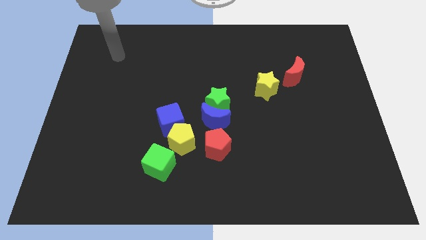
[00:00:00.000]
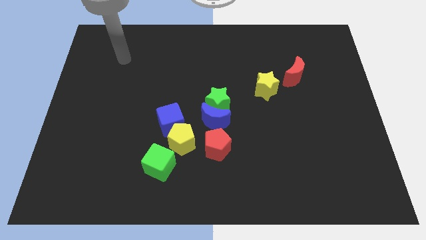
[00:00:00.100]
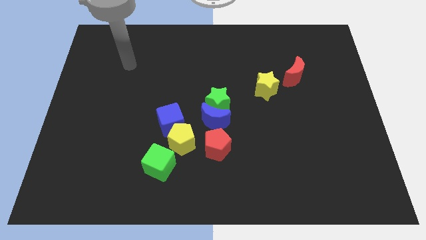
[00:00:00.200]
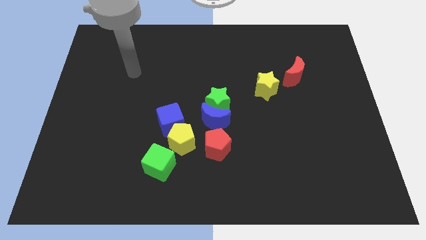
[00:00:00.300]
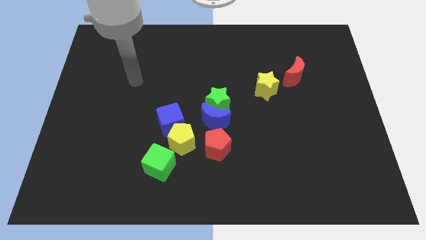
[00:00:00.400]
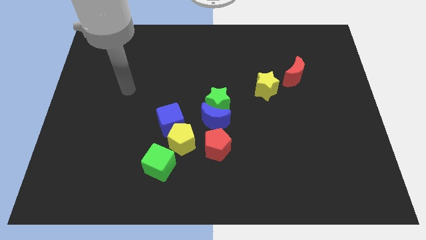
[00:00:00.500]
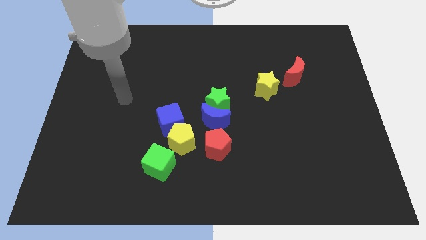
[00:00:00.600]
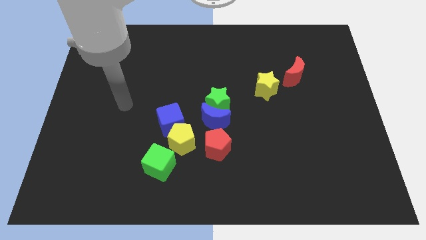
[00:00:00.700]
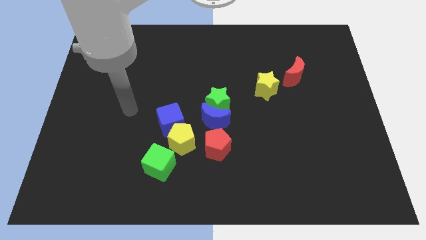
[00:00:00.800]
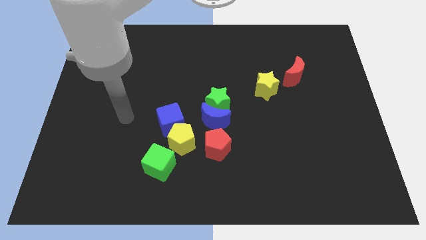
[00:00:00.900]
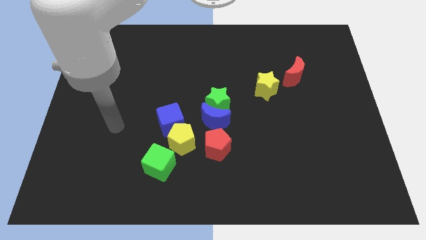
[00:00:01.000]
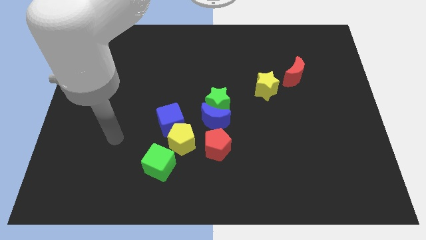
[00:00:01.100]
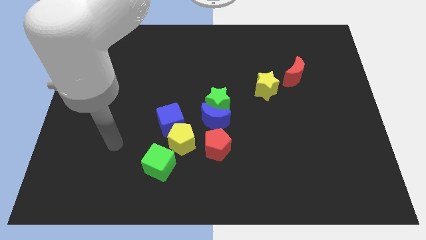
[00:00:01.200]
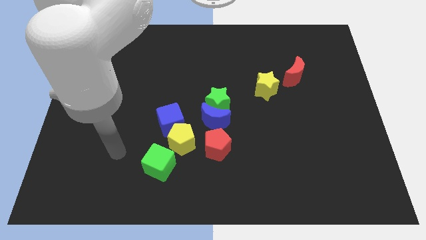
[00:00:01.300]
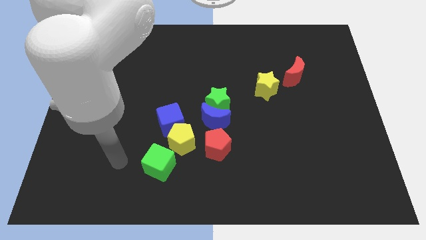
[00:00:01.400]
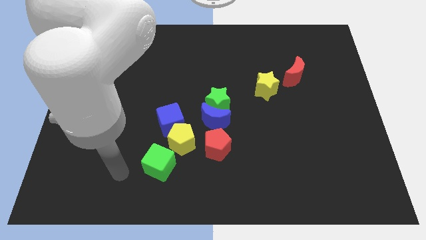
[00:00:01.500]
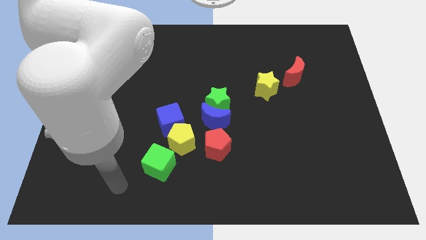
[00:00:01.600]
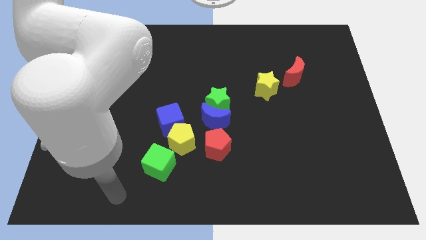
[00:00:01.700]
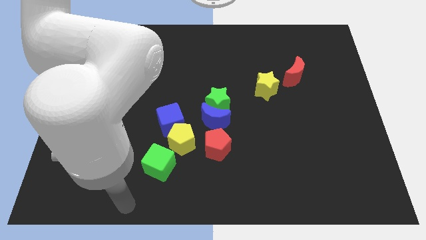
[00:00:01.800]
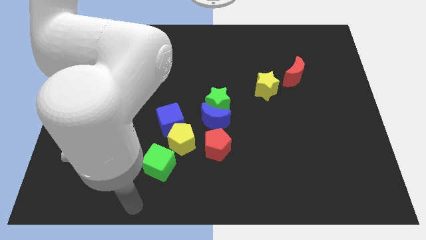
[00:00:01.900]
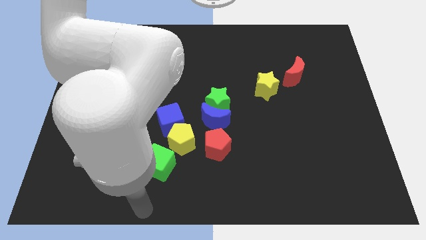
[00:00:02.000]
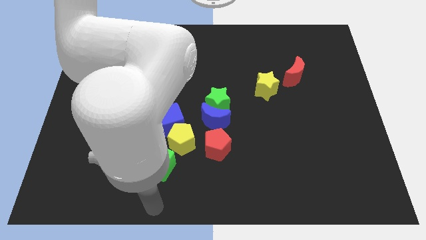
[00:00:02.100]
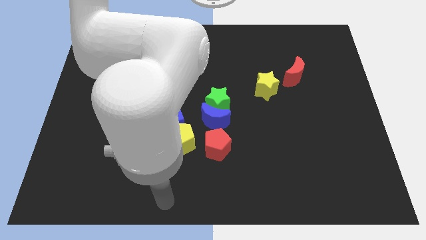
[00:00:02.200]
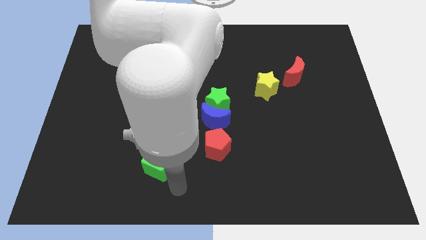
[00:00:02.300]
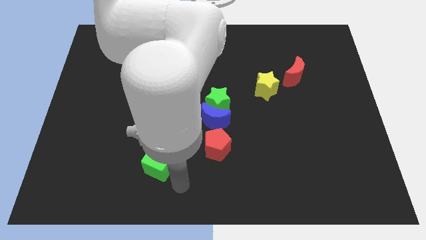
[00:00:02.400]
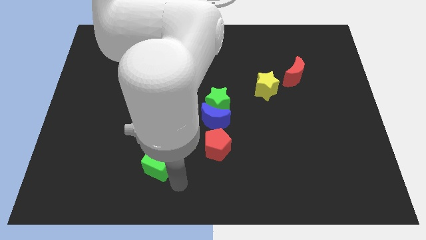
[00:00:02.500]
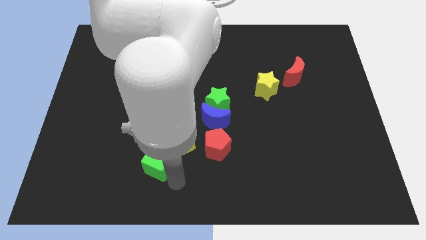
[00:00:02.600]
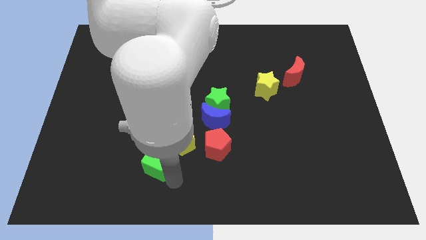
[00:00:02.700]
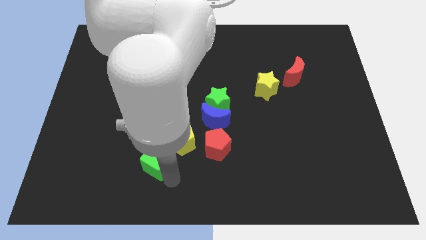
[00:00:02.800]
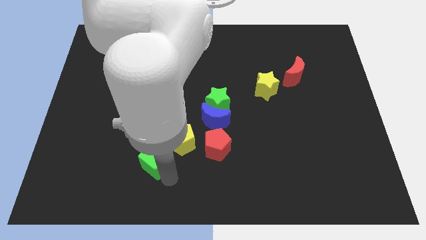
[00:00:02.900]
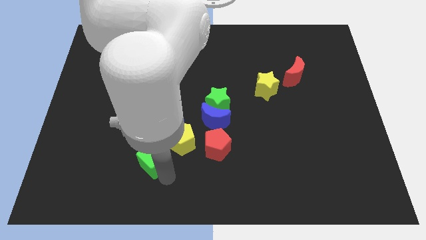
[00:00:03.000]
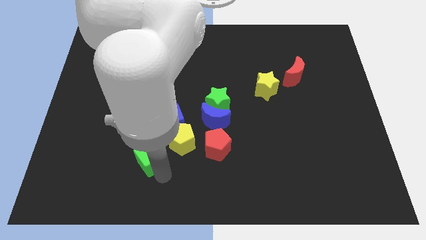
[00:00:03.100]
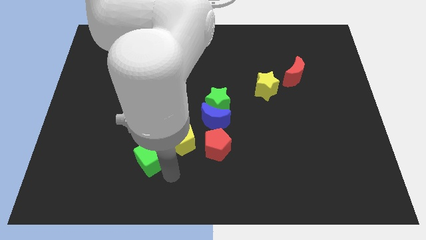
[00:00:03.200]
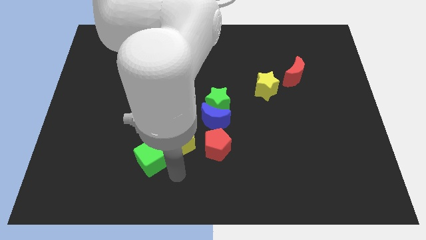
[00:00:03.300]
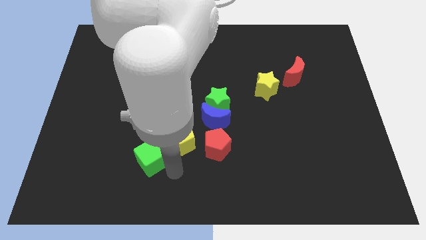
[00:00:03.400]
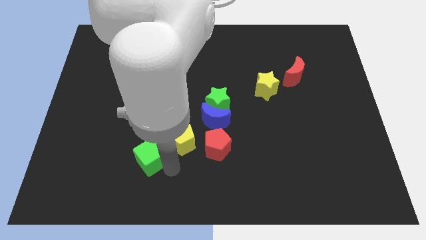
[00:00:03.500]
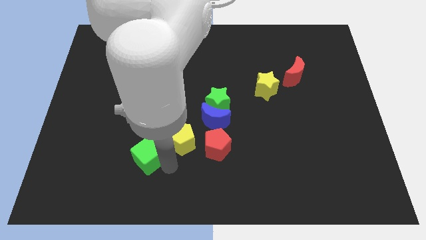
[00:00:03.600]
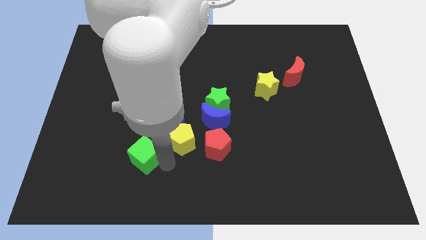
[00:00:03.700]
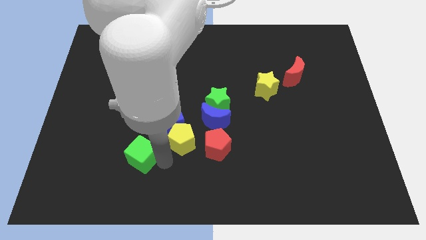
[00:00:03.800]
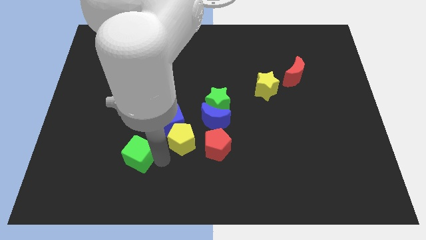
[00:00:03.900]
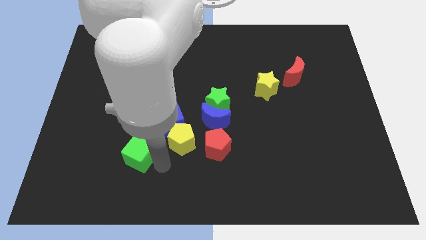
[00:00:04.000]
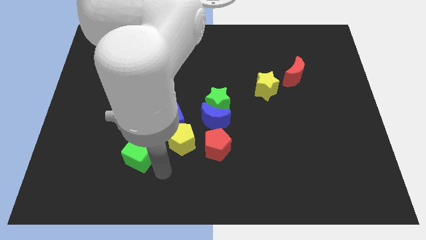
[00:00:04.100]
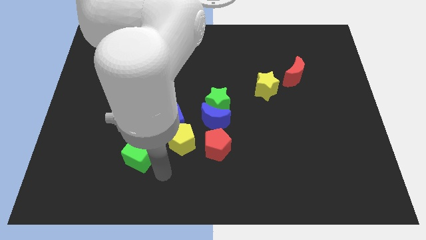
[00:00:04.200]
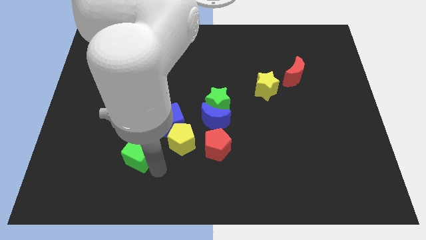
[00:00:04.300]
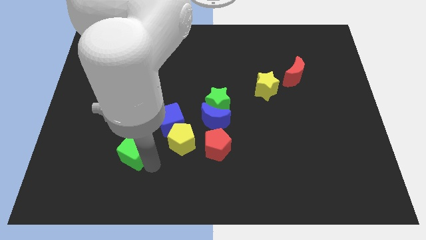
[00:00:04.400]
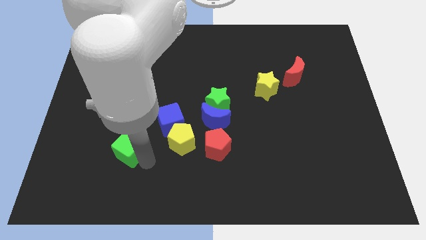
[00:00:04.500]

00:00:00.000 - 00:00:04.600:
slide the green cube upwards and then left a bit

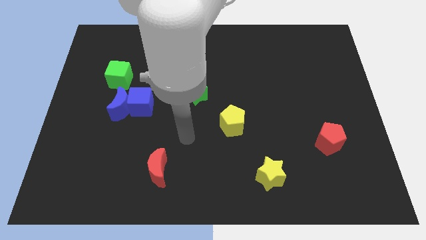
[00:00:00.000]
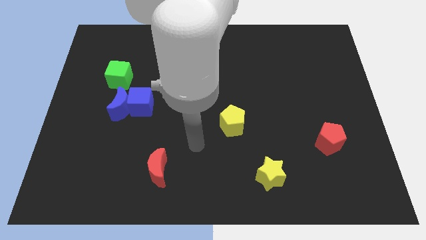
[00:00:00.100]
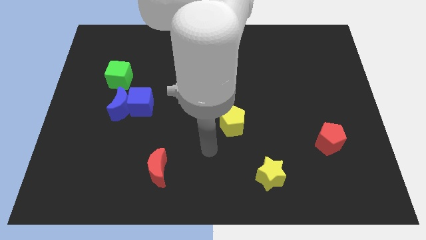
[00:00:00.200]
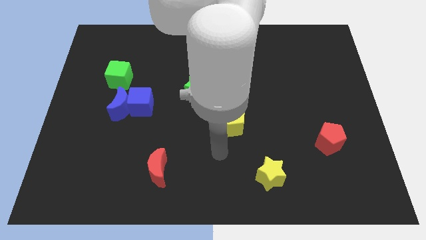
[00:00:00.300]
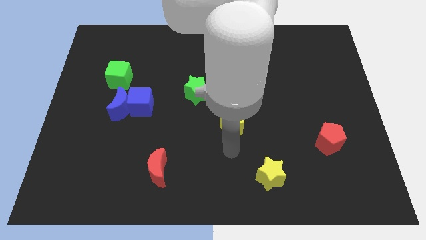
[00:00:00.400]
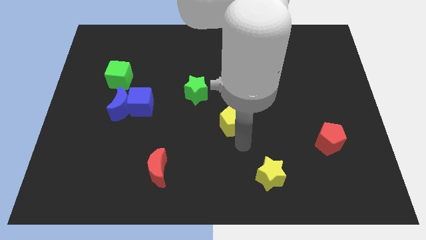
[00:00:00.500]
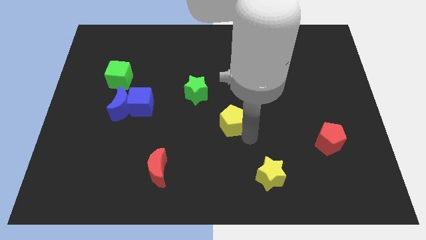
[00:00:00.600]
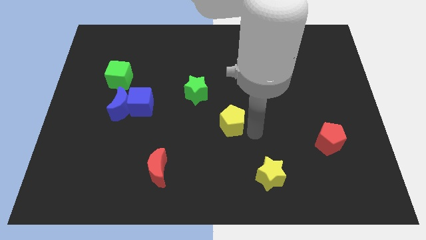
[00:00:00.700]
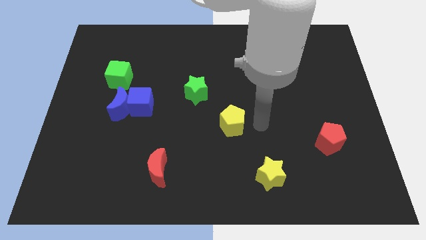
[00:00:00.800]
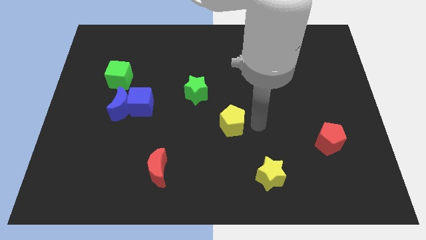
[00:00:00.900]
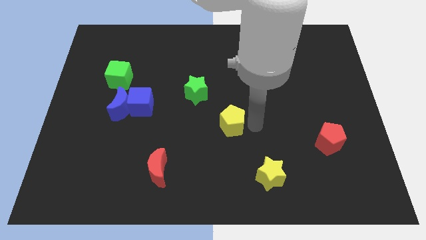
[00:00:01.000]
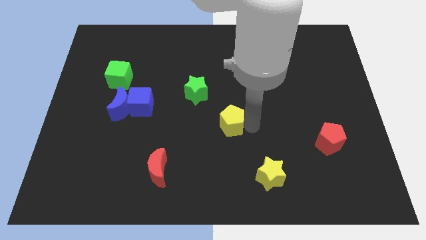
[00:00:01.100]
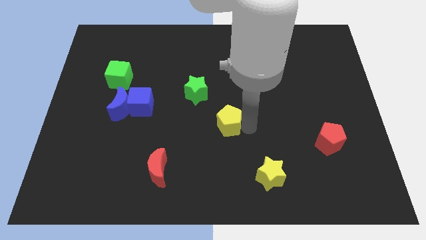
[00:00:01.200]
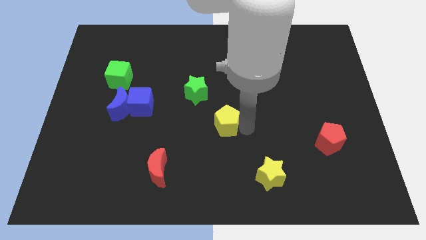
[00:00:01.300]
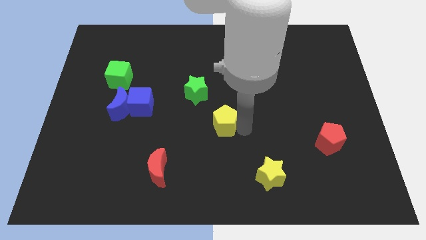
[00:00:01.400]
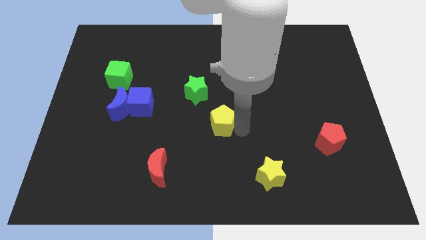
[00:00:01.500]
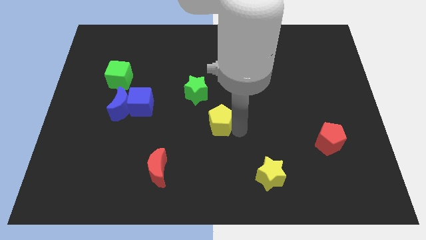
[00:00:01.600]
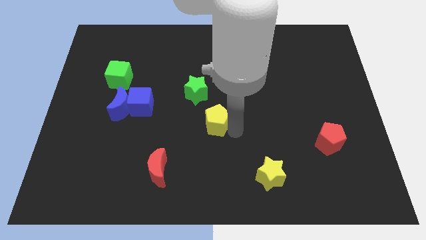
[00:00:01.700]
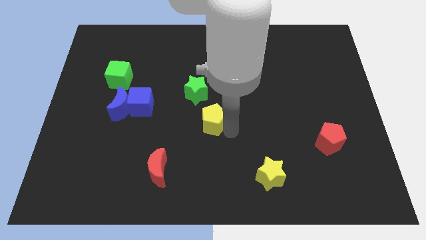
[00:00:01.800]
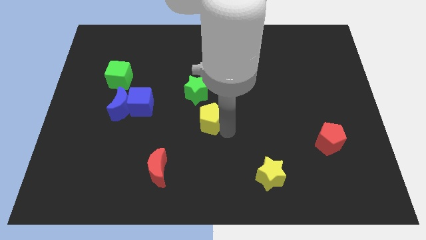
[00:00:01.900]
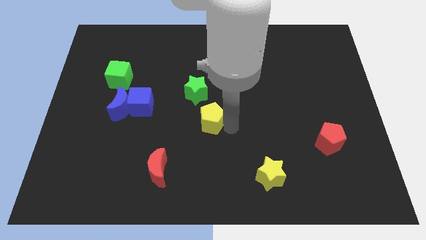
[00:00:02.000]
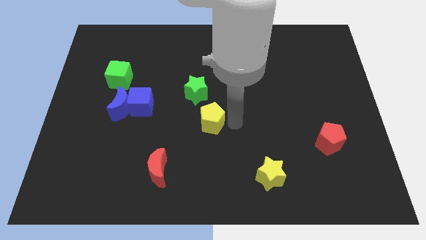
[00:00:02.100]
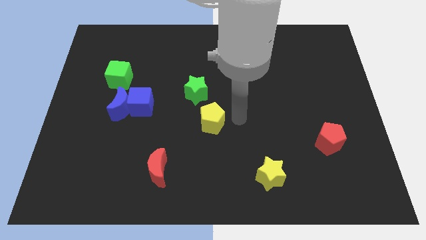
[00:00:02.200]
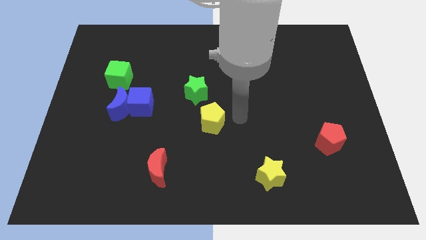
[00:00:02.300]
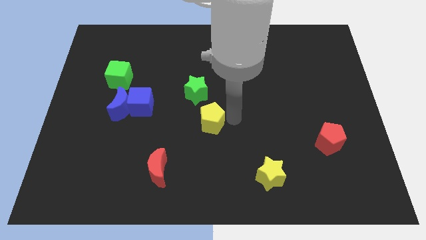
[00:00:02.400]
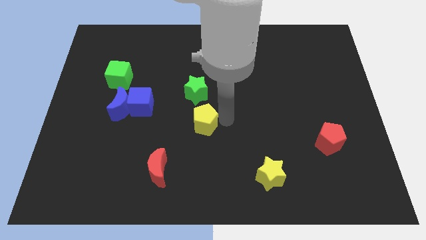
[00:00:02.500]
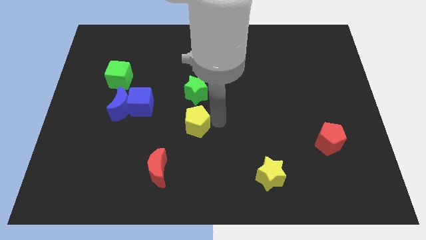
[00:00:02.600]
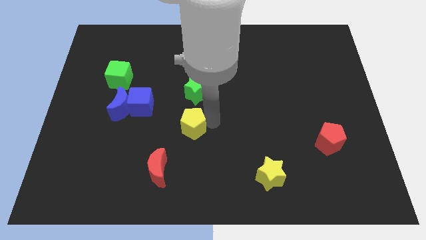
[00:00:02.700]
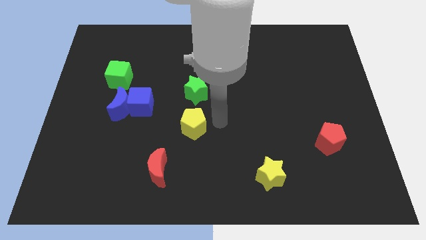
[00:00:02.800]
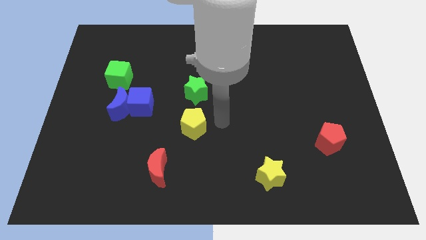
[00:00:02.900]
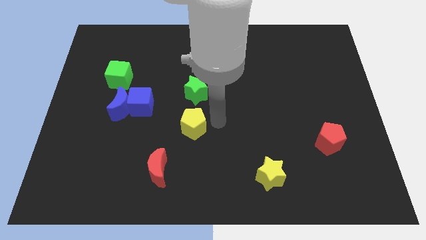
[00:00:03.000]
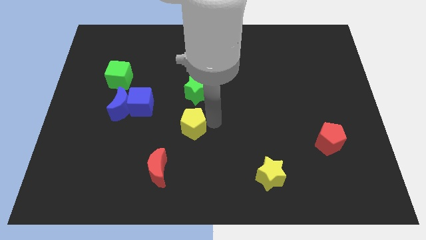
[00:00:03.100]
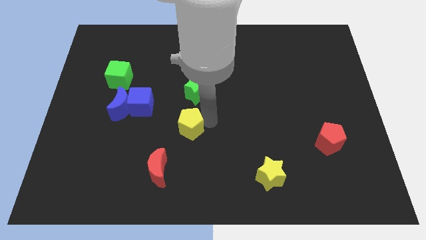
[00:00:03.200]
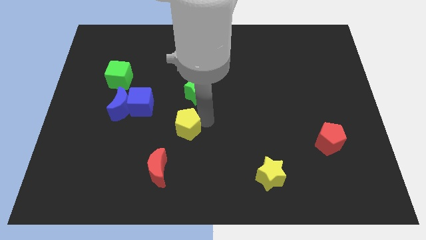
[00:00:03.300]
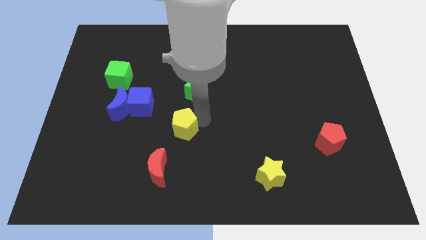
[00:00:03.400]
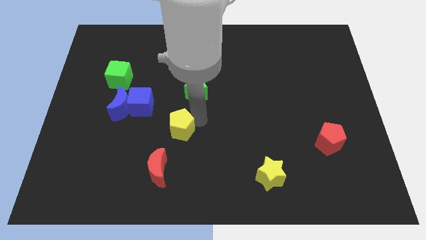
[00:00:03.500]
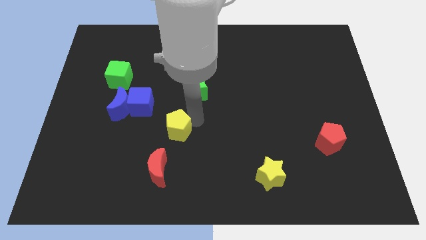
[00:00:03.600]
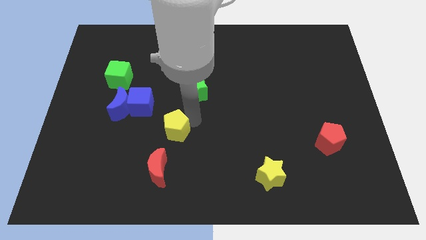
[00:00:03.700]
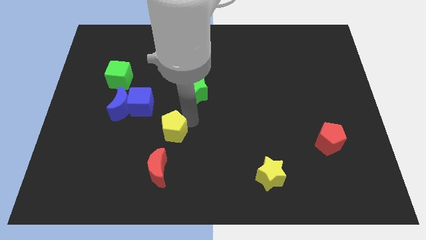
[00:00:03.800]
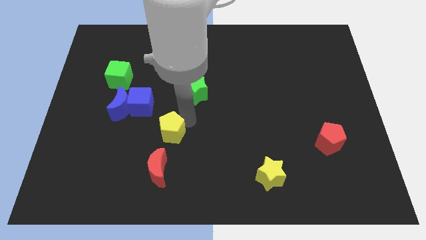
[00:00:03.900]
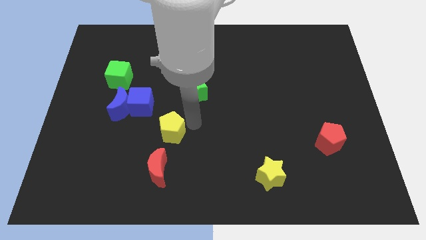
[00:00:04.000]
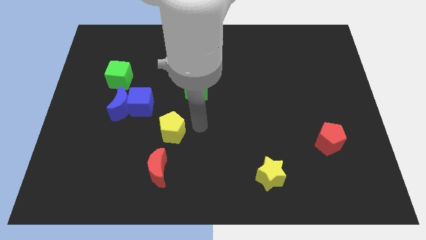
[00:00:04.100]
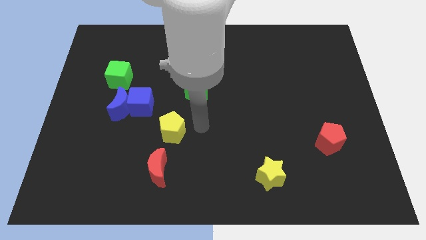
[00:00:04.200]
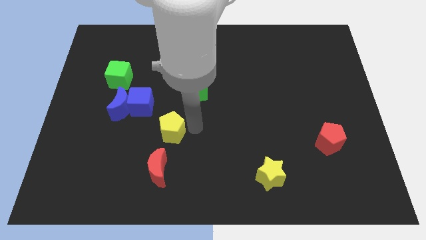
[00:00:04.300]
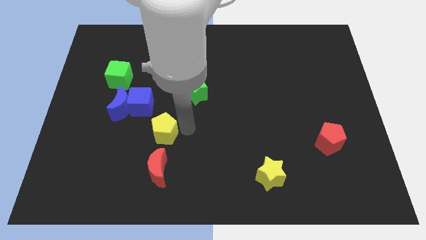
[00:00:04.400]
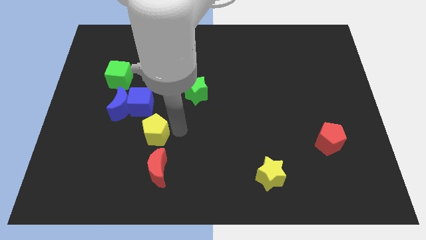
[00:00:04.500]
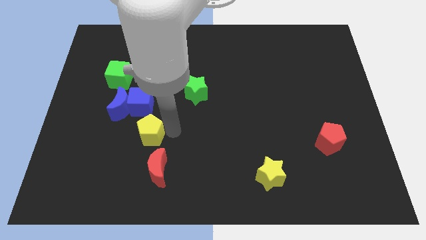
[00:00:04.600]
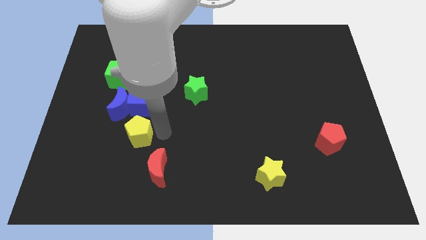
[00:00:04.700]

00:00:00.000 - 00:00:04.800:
slide the yellow pentagon to the left
